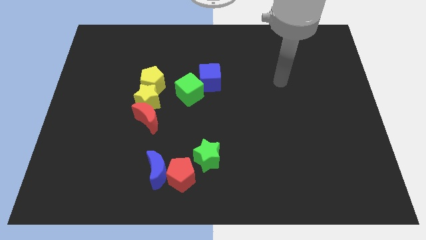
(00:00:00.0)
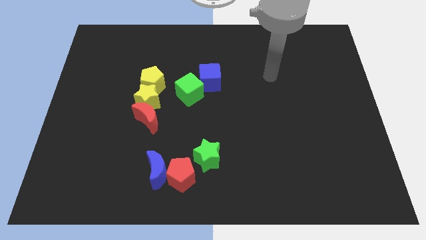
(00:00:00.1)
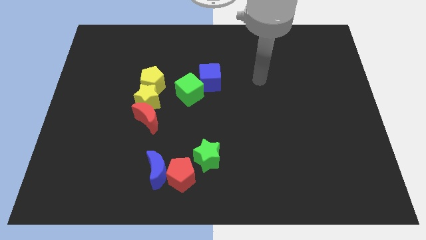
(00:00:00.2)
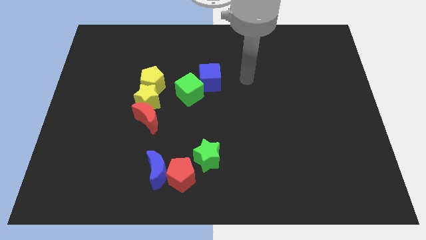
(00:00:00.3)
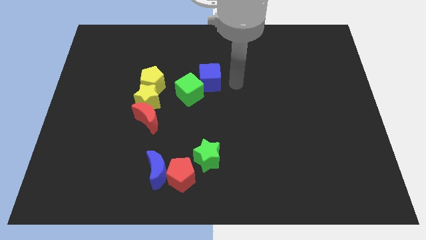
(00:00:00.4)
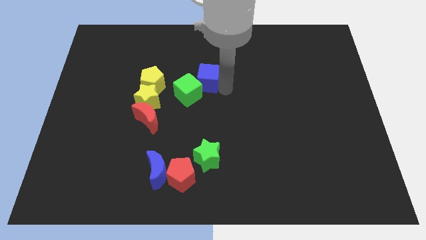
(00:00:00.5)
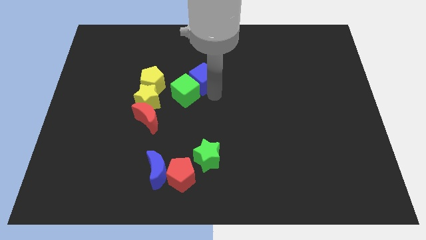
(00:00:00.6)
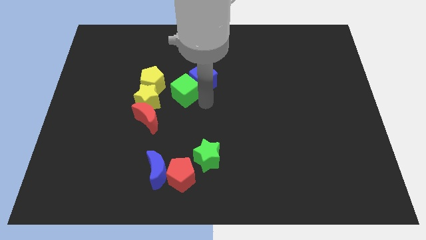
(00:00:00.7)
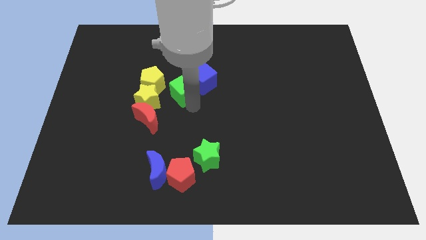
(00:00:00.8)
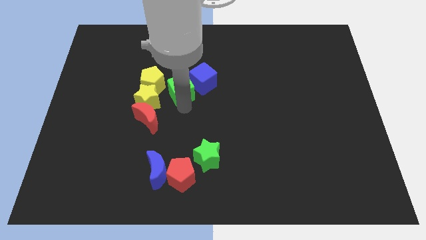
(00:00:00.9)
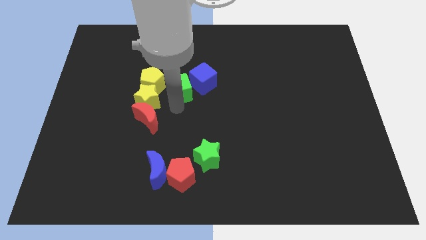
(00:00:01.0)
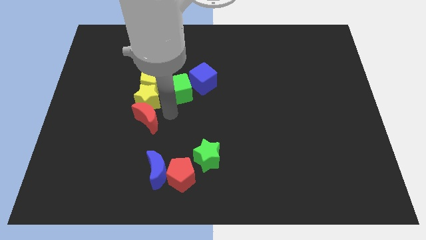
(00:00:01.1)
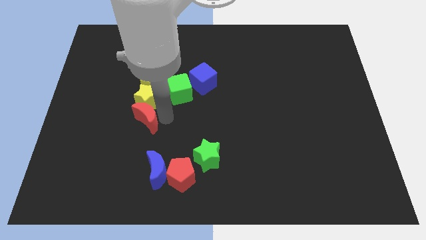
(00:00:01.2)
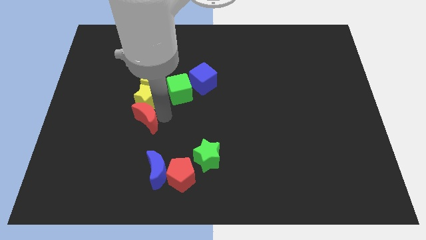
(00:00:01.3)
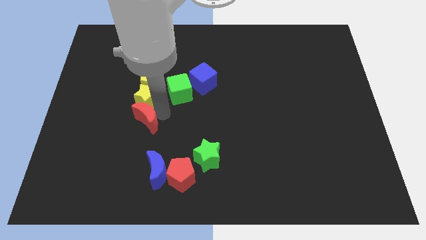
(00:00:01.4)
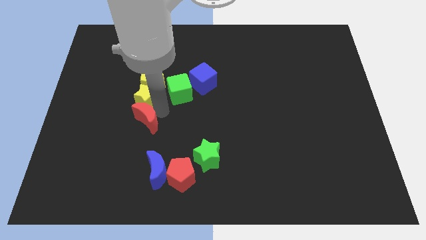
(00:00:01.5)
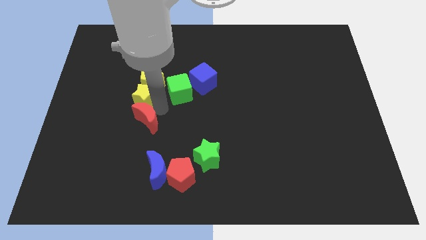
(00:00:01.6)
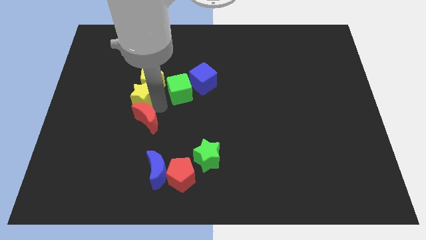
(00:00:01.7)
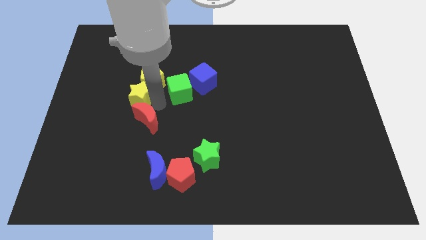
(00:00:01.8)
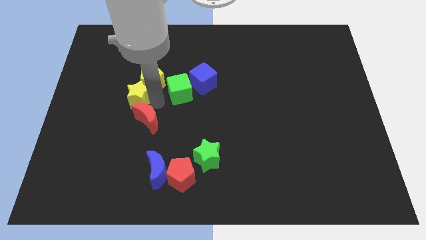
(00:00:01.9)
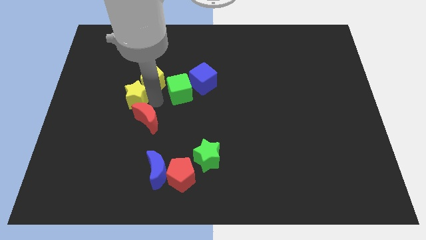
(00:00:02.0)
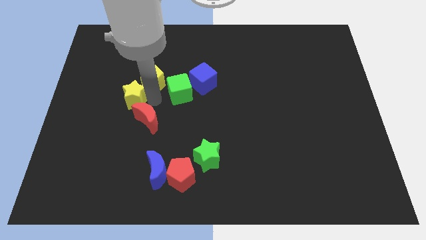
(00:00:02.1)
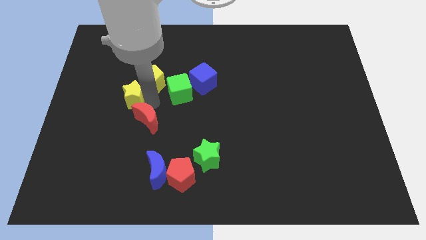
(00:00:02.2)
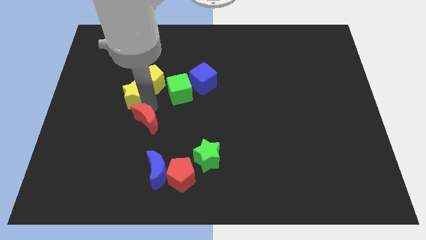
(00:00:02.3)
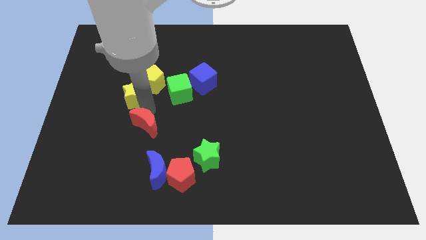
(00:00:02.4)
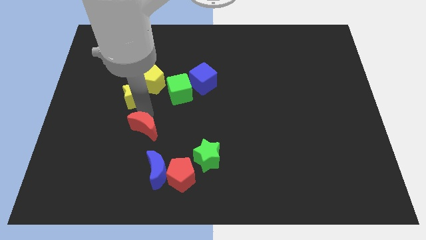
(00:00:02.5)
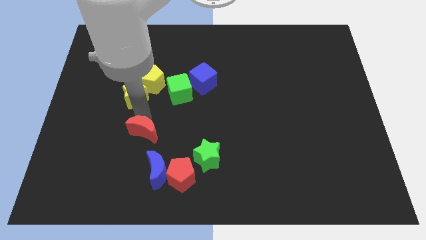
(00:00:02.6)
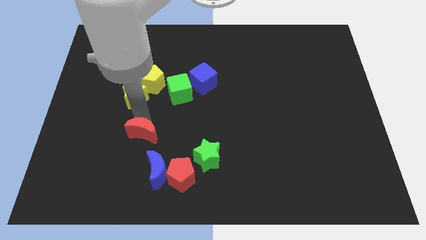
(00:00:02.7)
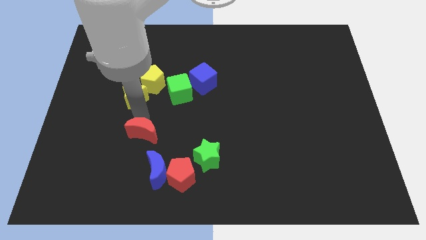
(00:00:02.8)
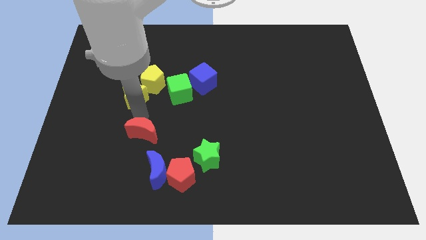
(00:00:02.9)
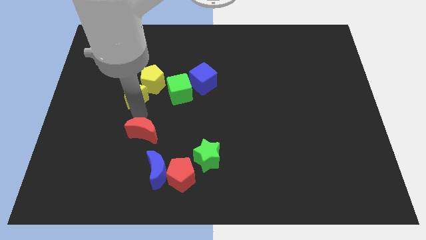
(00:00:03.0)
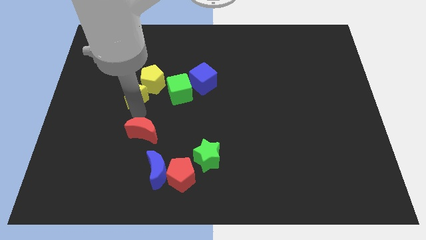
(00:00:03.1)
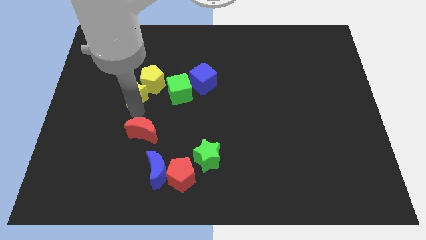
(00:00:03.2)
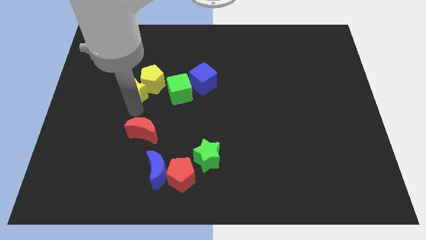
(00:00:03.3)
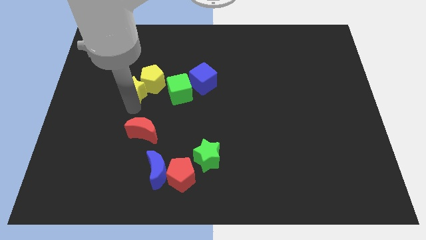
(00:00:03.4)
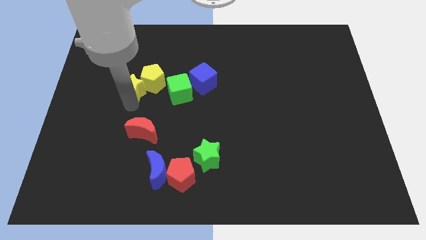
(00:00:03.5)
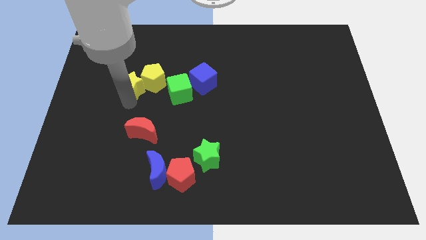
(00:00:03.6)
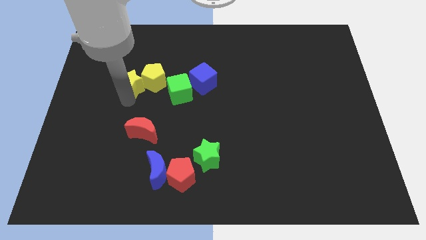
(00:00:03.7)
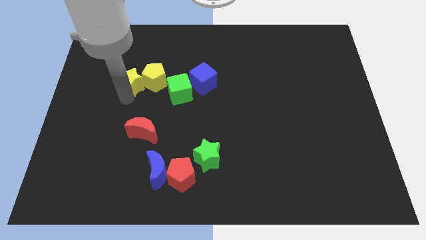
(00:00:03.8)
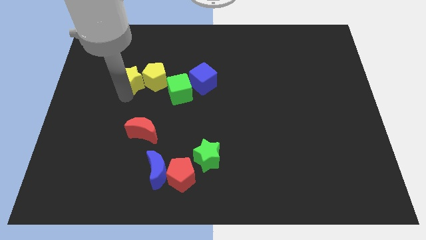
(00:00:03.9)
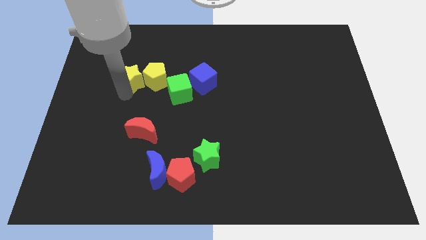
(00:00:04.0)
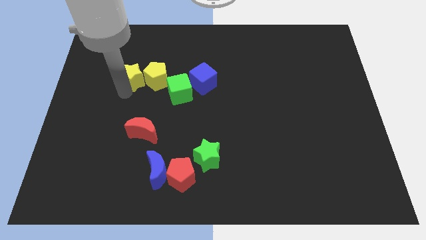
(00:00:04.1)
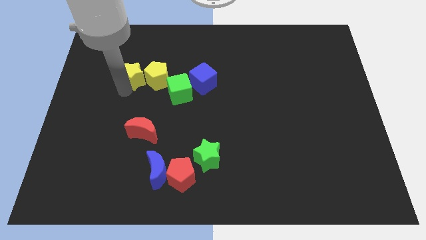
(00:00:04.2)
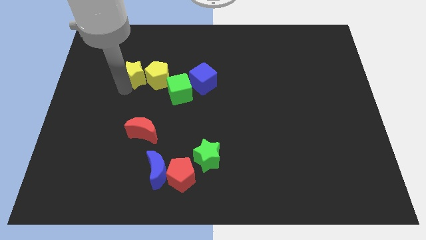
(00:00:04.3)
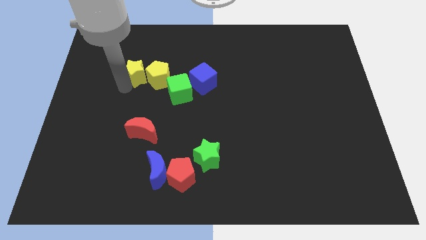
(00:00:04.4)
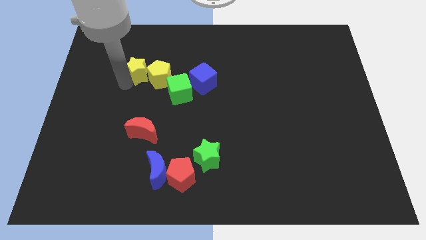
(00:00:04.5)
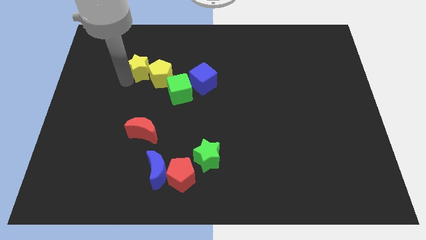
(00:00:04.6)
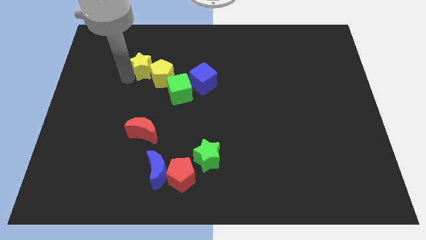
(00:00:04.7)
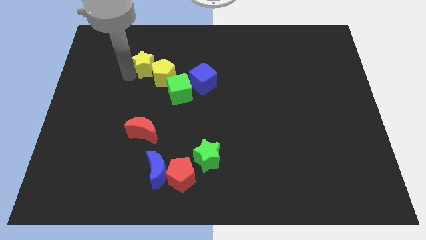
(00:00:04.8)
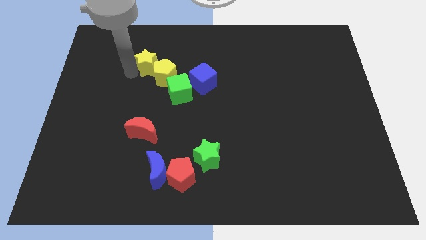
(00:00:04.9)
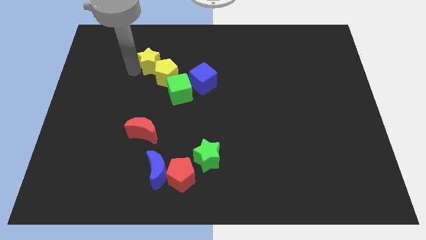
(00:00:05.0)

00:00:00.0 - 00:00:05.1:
put the yellow star to the top side of the yellow pentagon

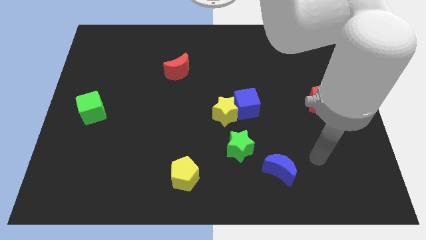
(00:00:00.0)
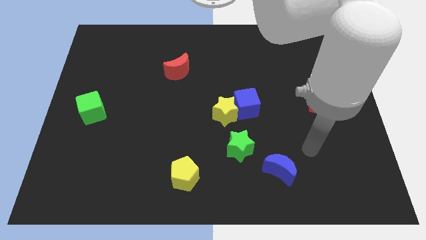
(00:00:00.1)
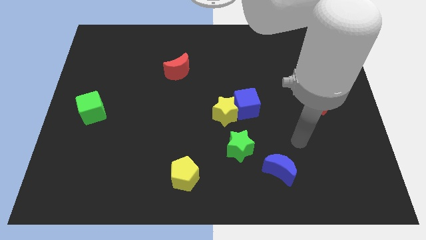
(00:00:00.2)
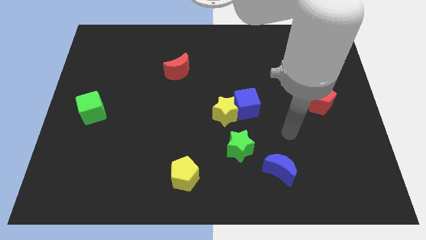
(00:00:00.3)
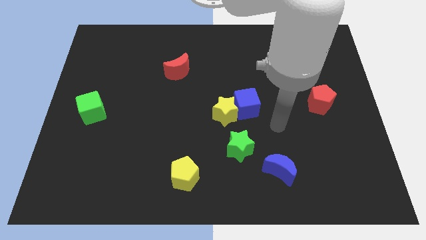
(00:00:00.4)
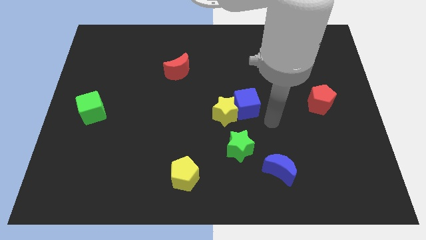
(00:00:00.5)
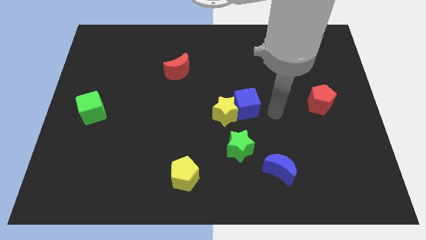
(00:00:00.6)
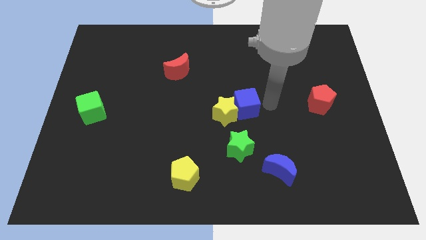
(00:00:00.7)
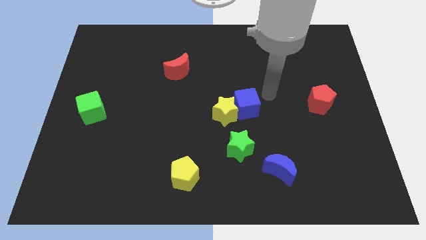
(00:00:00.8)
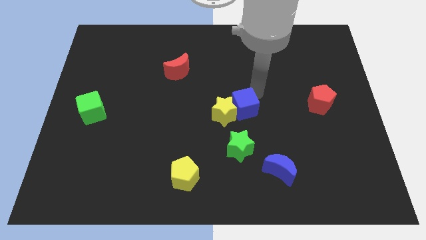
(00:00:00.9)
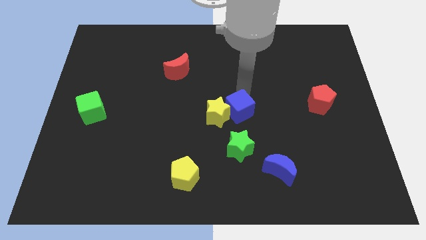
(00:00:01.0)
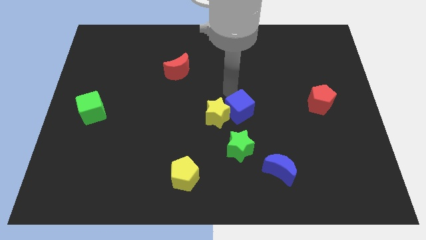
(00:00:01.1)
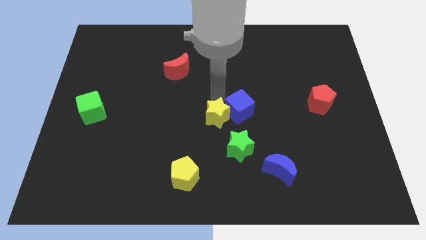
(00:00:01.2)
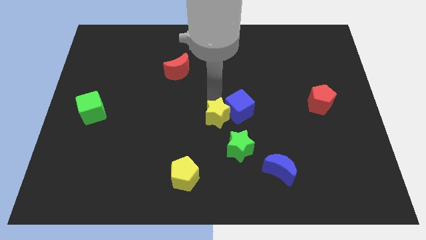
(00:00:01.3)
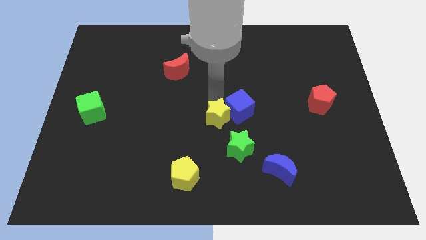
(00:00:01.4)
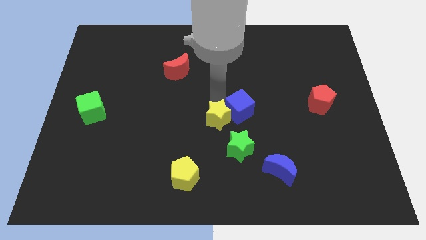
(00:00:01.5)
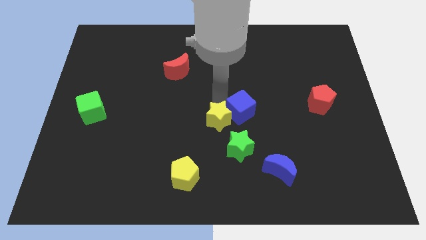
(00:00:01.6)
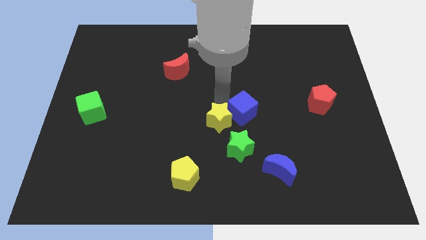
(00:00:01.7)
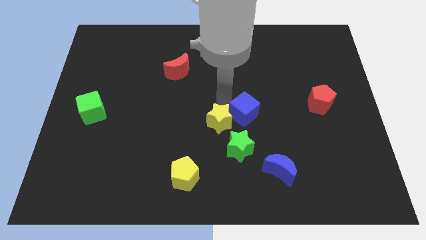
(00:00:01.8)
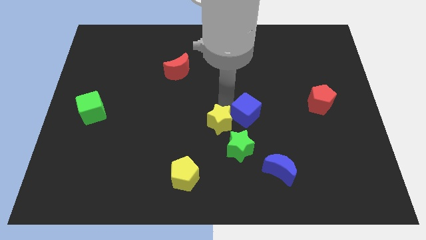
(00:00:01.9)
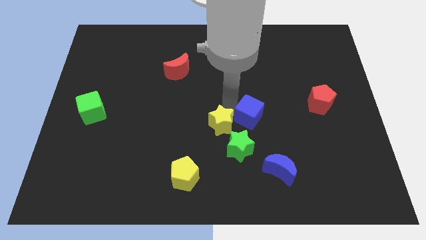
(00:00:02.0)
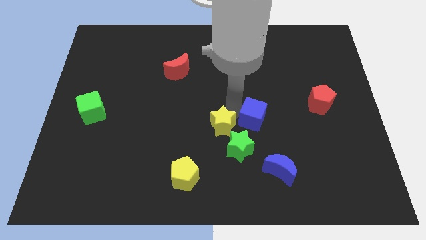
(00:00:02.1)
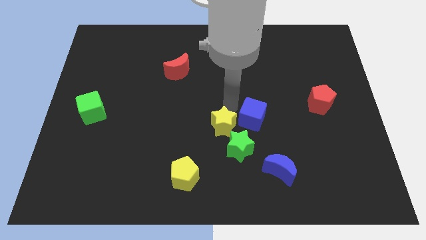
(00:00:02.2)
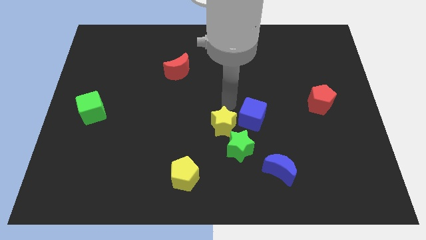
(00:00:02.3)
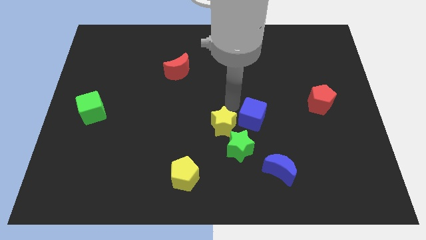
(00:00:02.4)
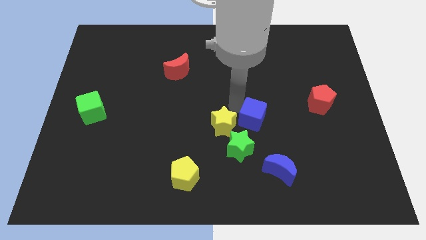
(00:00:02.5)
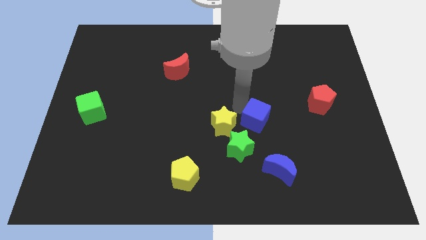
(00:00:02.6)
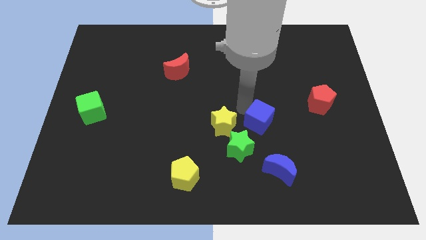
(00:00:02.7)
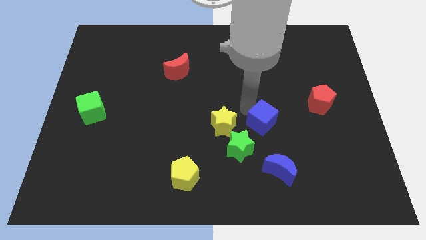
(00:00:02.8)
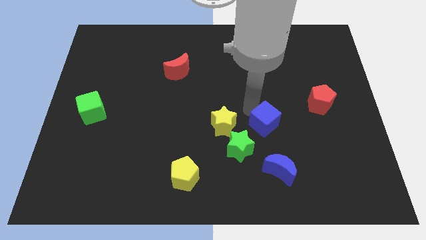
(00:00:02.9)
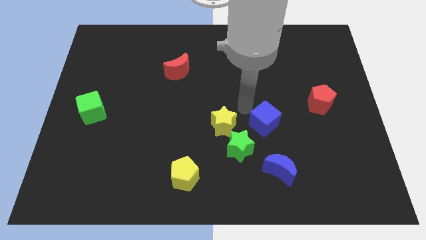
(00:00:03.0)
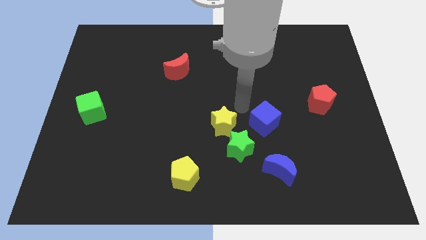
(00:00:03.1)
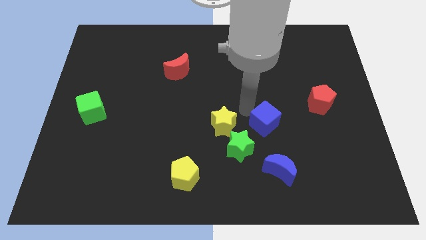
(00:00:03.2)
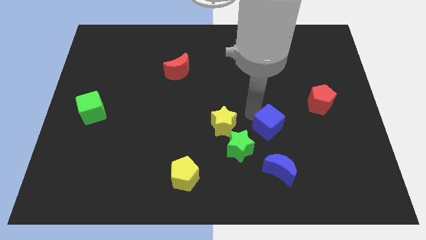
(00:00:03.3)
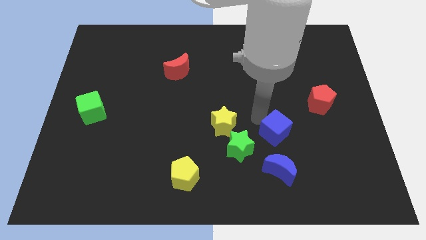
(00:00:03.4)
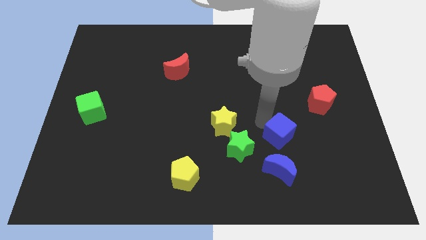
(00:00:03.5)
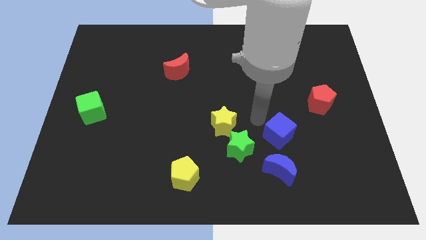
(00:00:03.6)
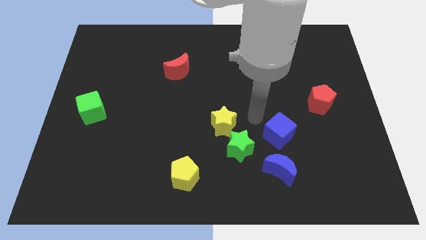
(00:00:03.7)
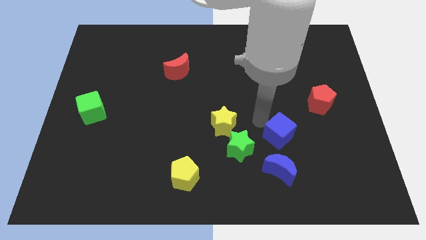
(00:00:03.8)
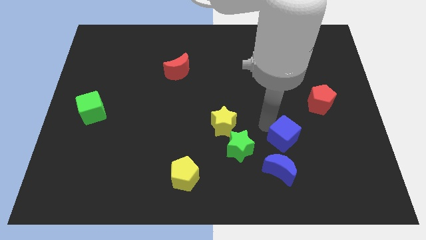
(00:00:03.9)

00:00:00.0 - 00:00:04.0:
slide the blue cube to the top right of the blue moon
